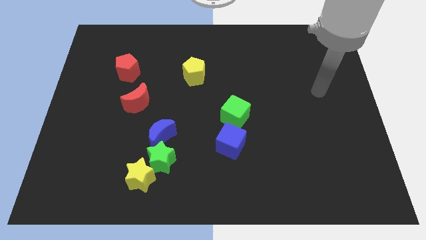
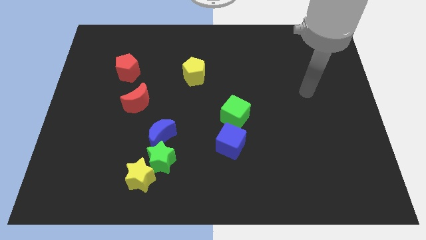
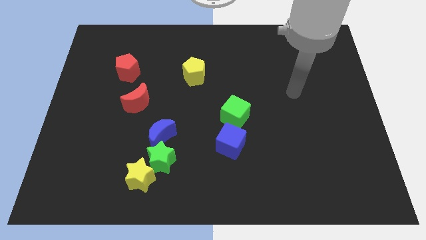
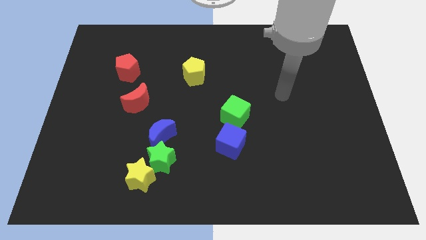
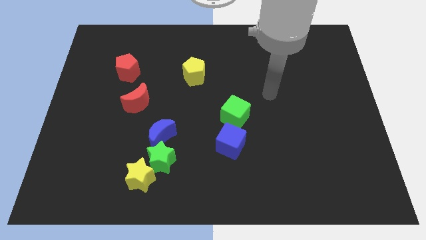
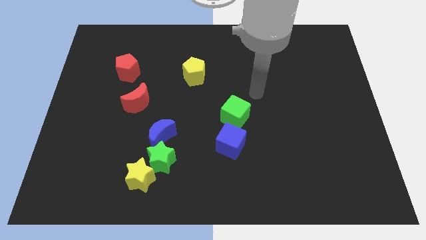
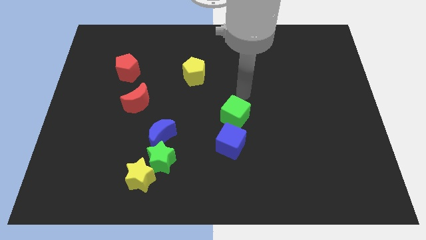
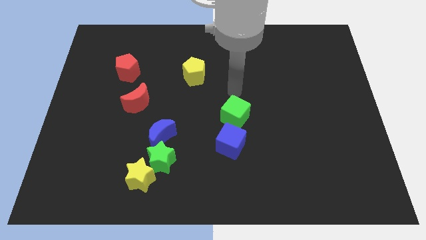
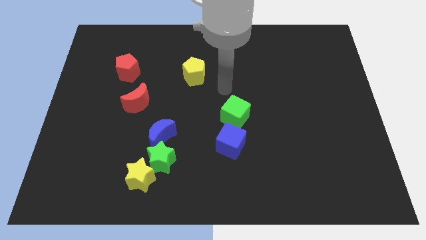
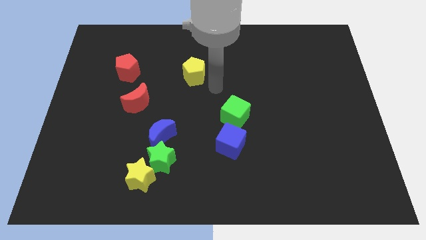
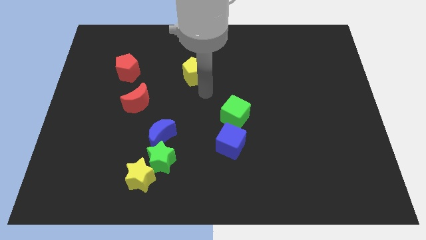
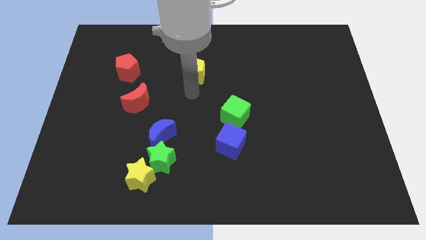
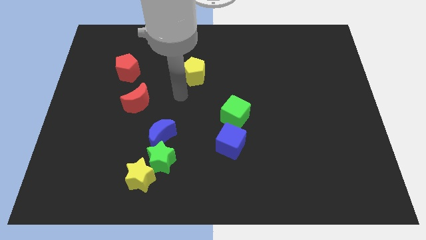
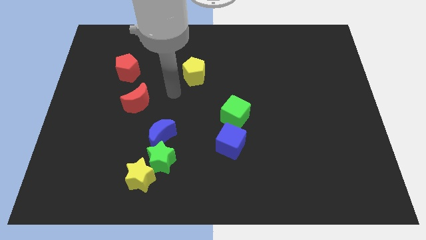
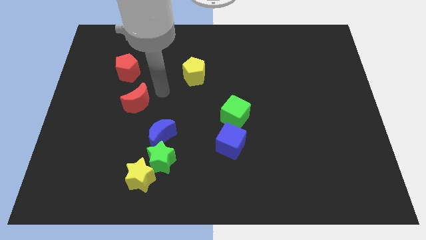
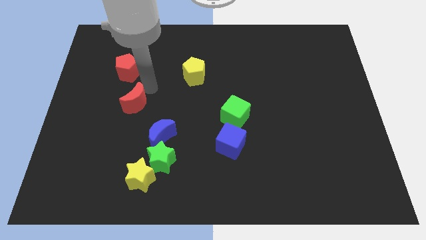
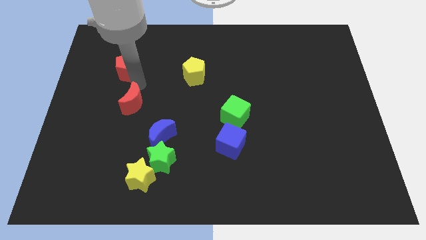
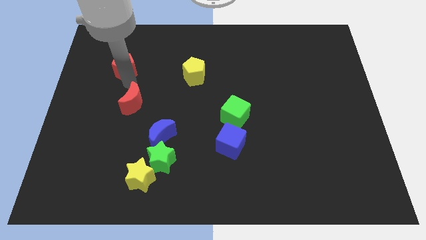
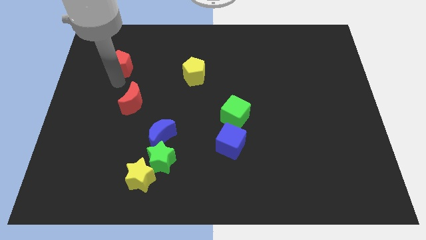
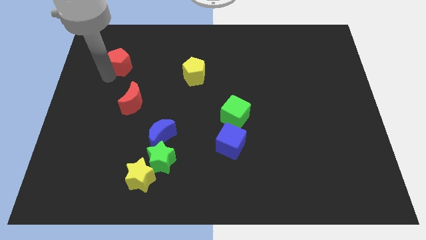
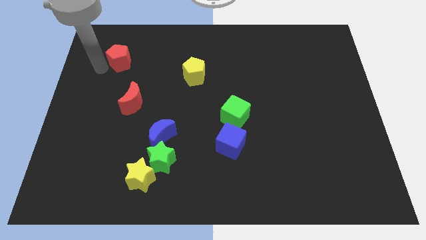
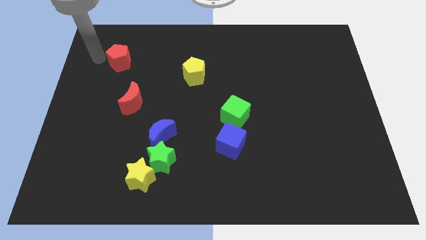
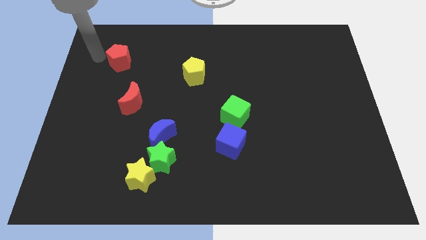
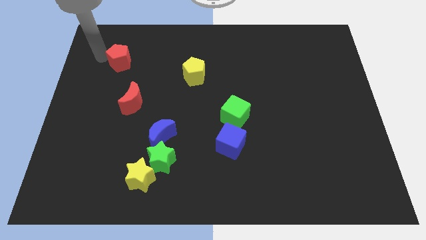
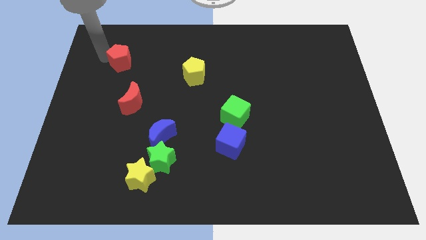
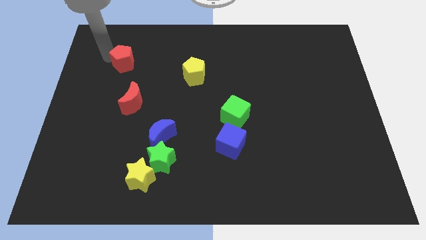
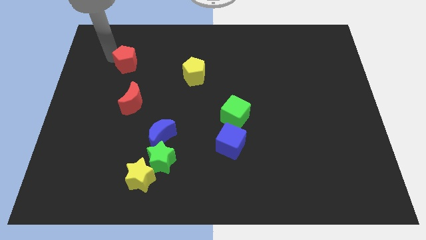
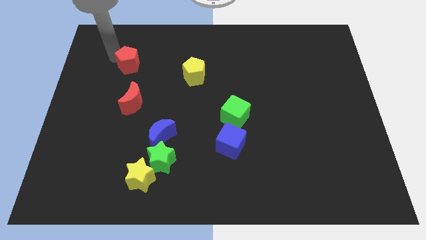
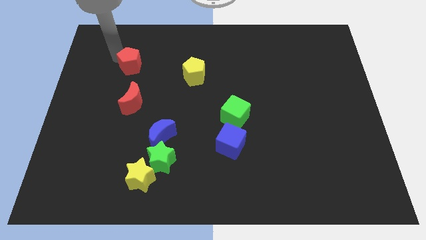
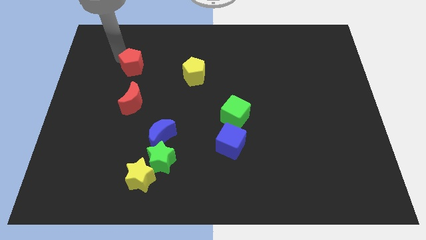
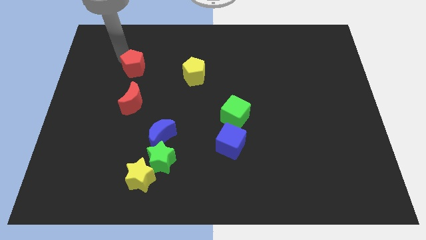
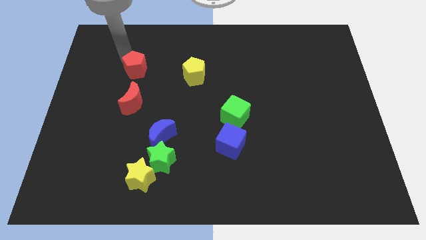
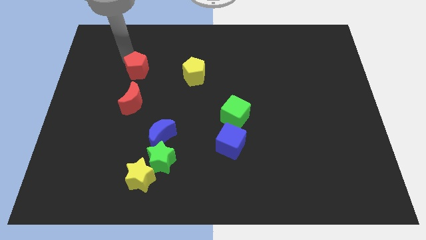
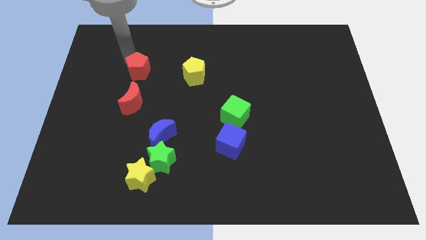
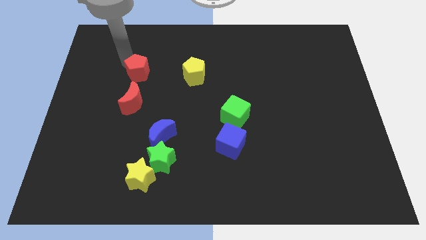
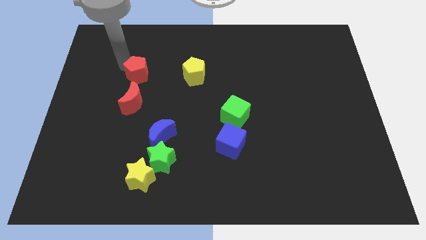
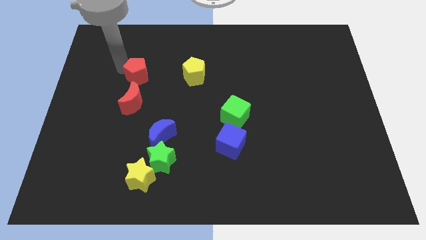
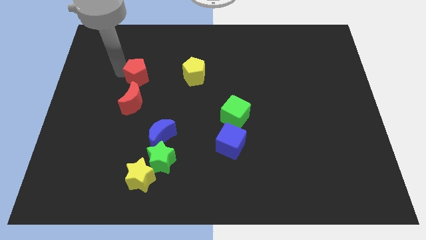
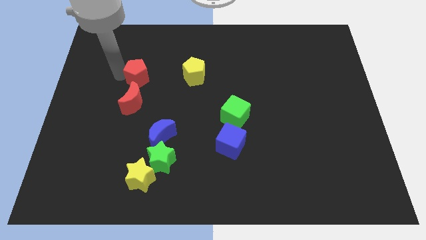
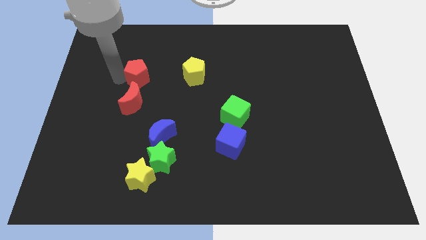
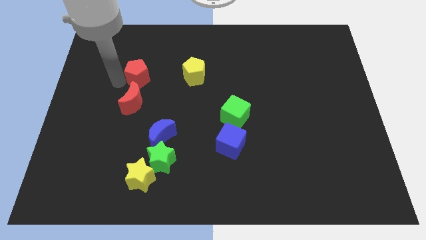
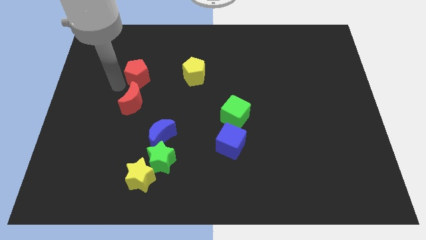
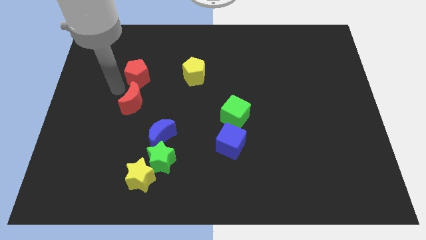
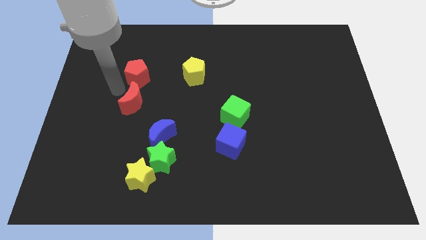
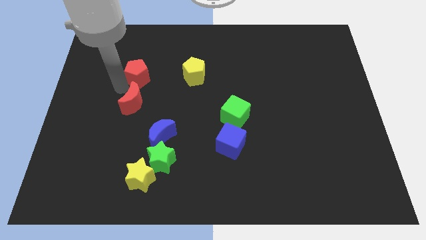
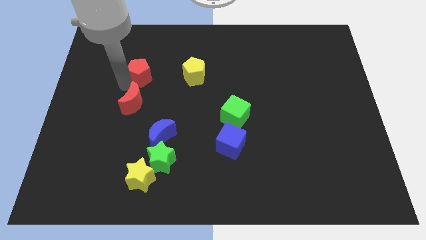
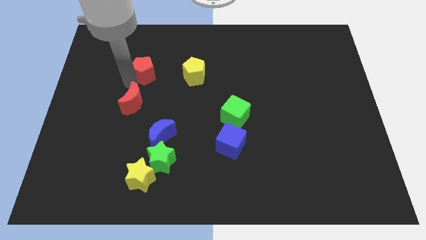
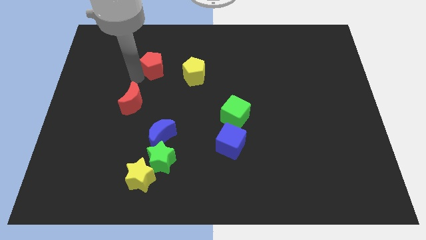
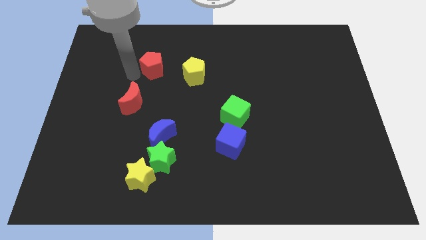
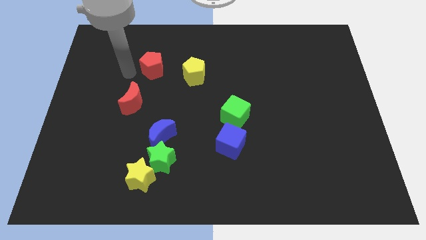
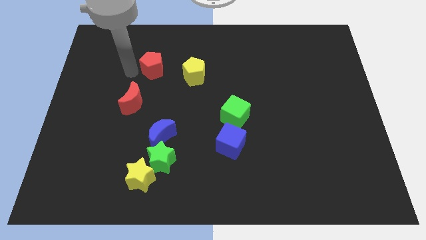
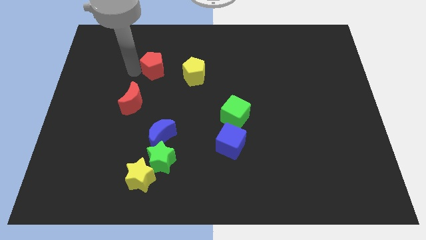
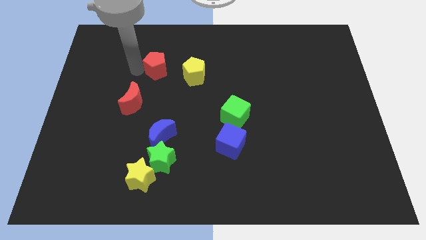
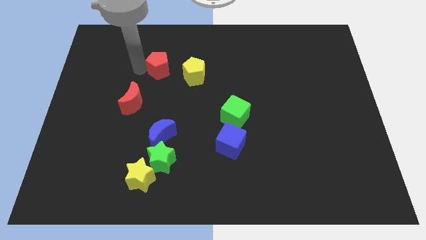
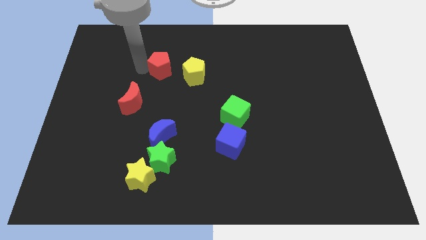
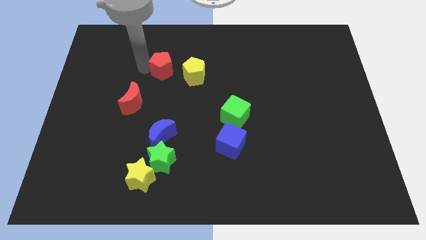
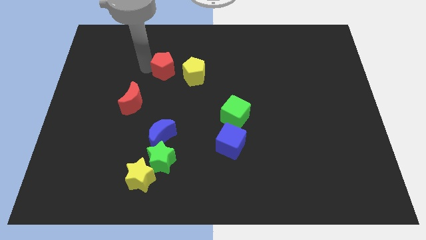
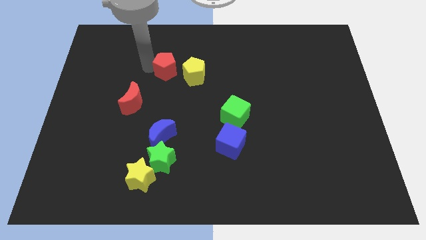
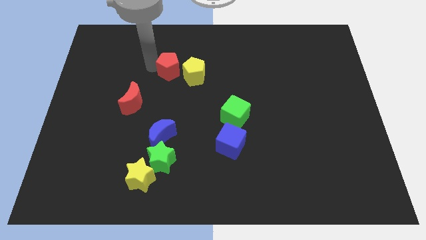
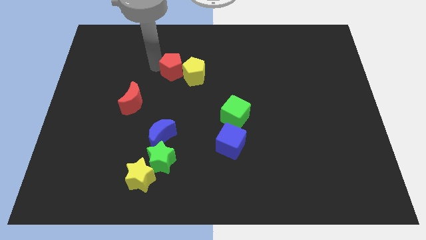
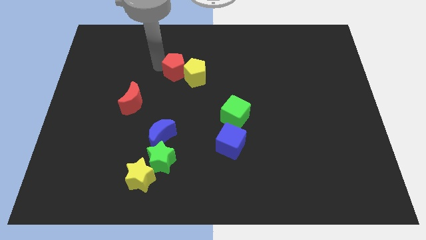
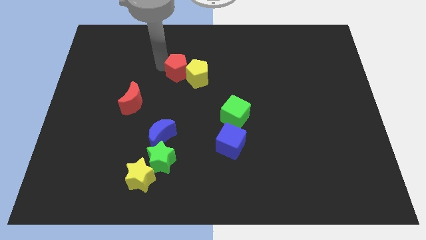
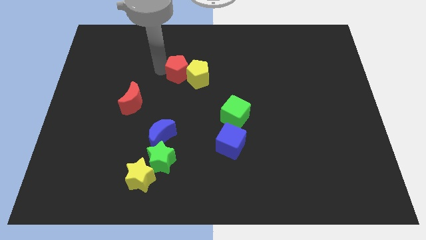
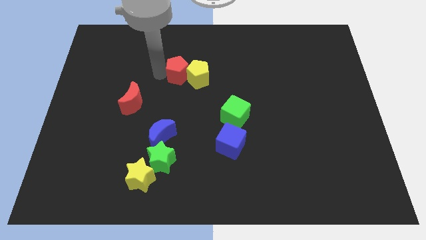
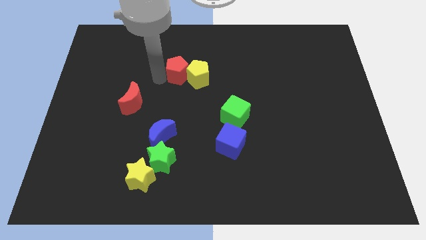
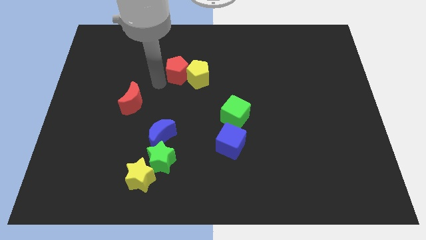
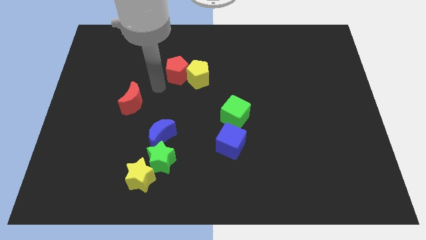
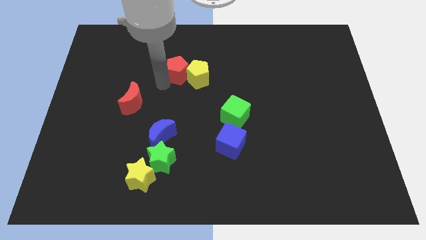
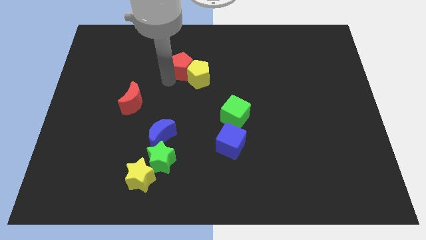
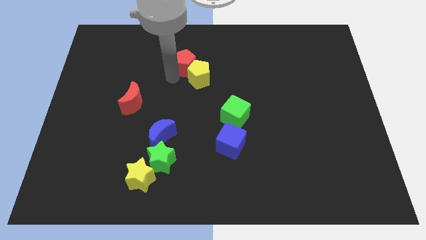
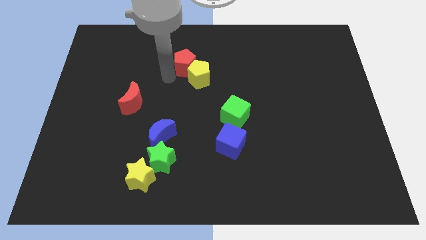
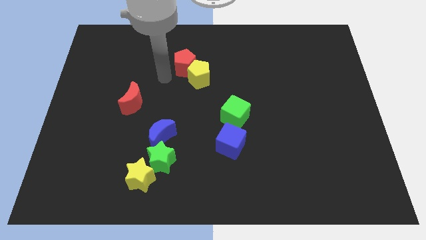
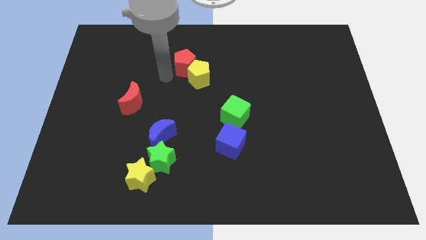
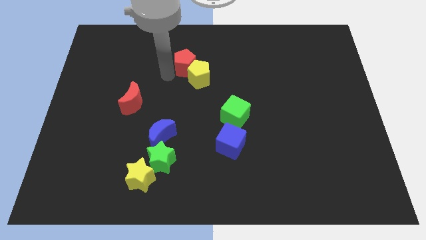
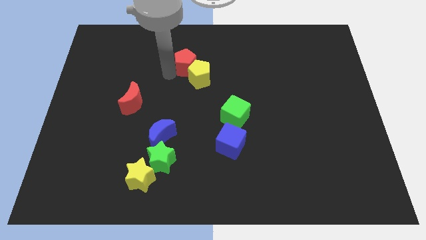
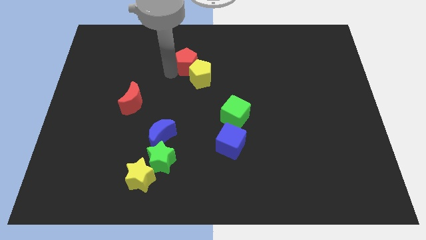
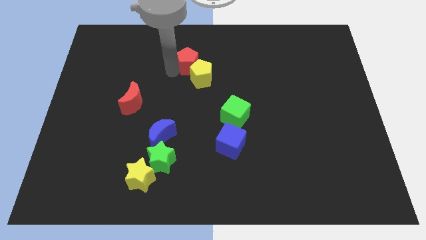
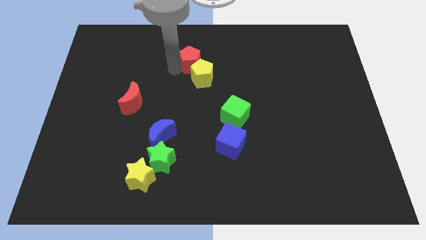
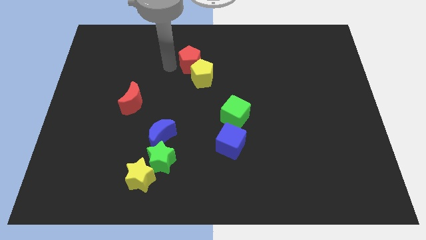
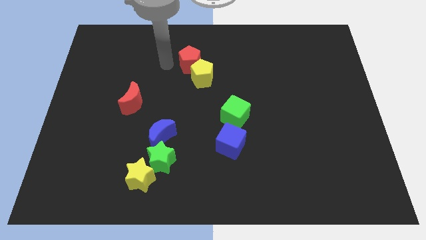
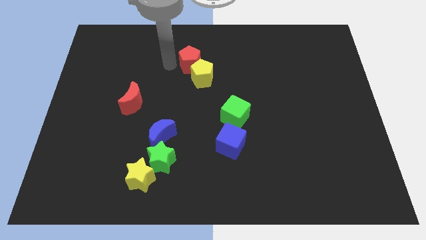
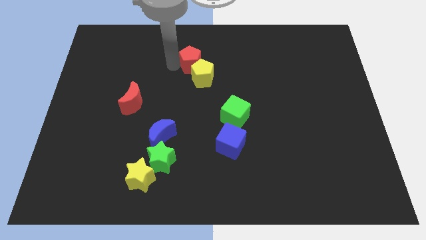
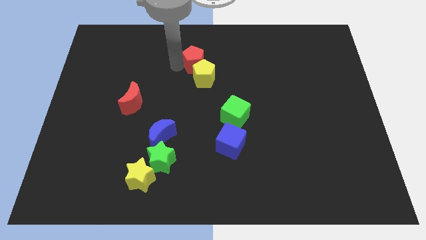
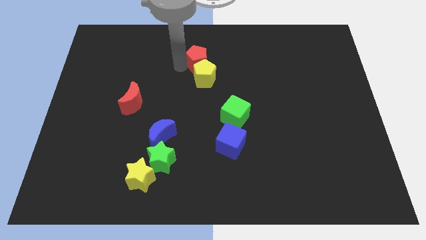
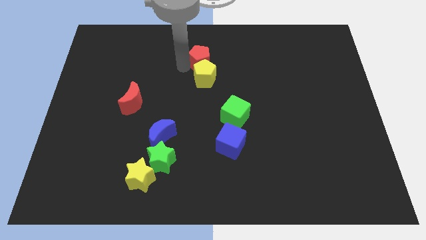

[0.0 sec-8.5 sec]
put the red pentagon to the top right of the yellow pentagon
